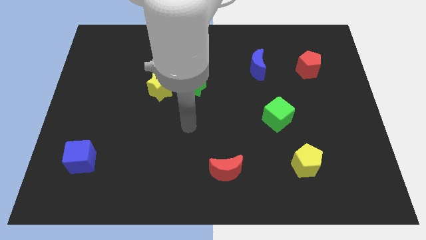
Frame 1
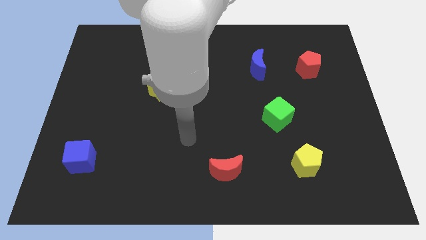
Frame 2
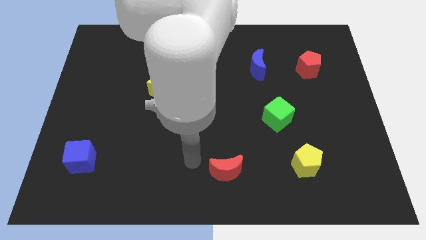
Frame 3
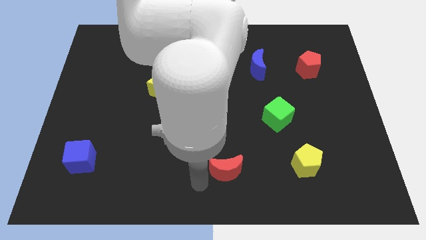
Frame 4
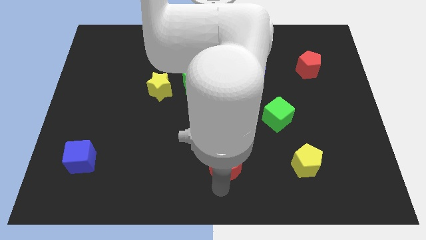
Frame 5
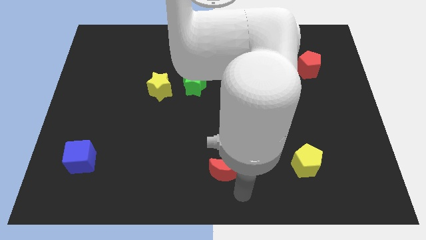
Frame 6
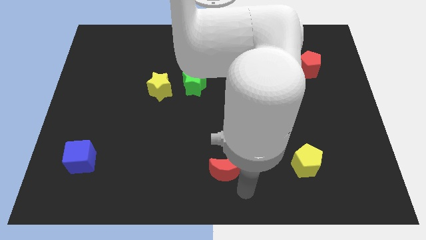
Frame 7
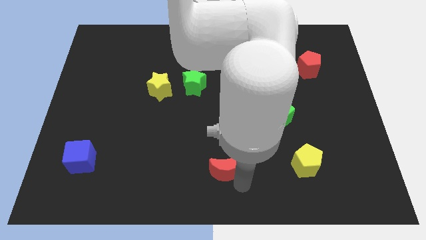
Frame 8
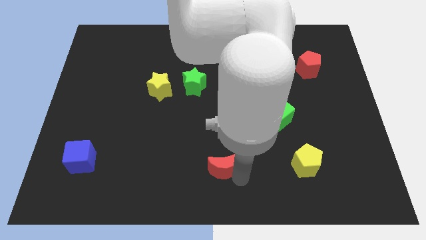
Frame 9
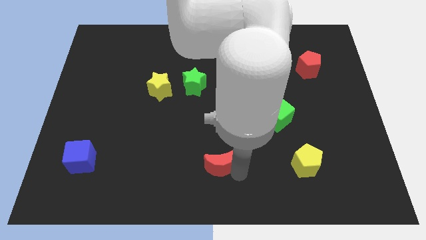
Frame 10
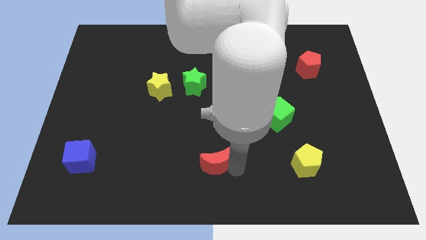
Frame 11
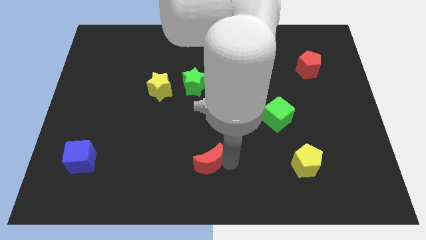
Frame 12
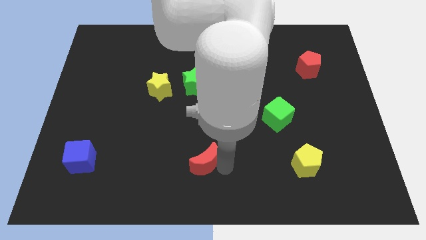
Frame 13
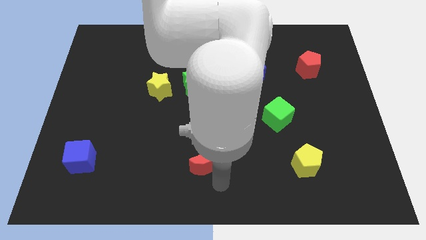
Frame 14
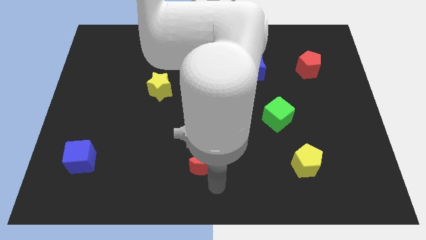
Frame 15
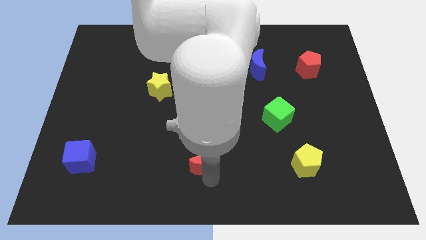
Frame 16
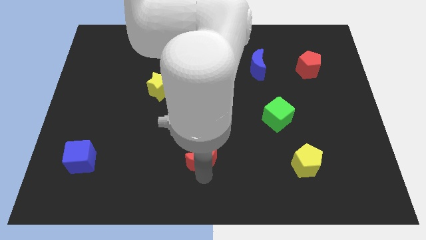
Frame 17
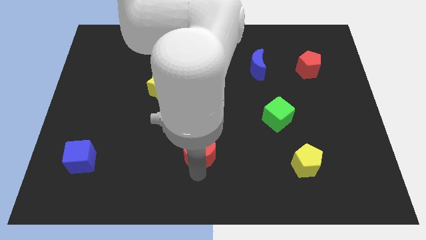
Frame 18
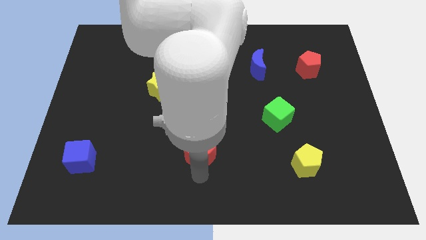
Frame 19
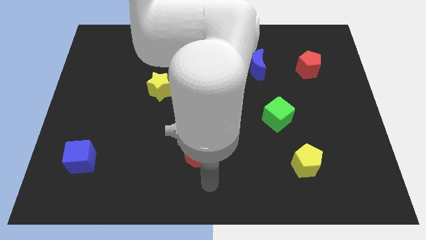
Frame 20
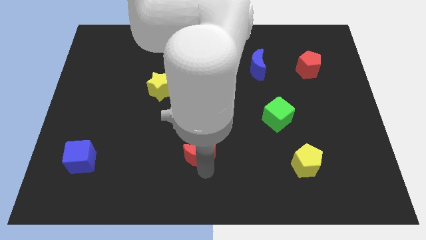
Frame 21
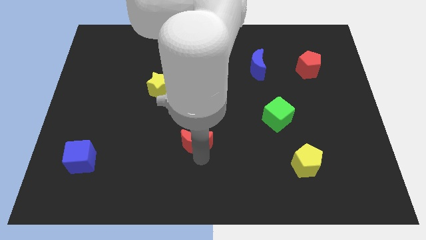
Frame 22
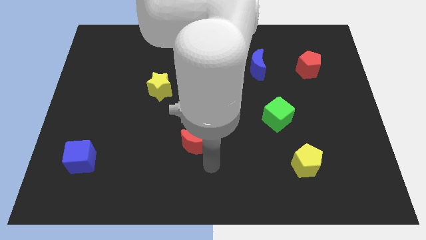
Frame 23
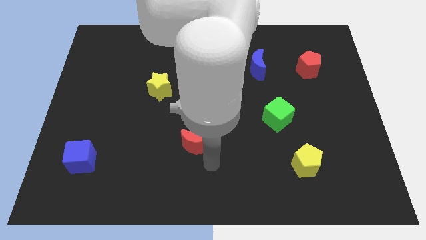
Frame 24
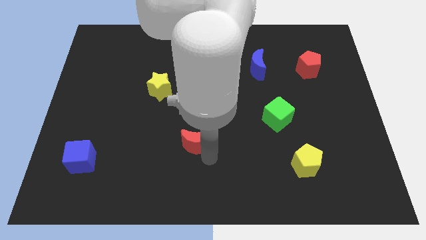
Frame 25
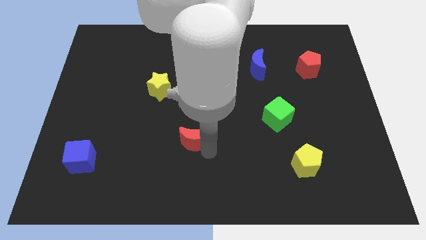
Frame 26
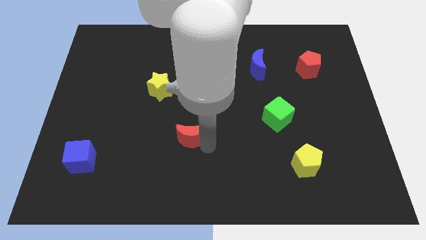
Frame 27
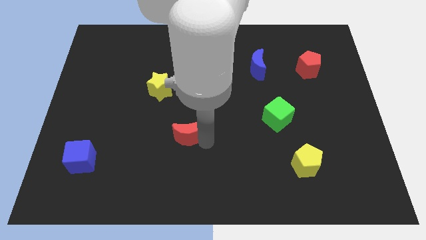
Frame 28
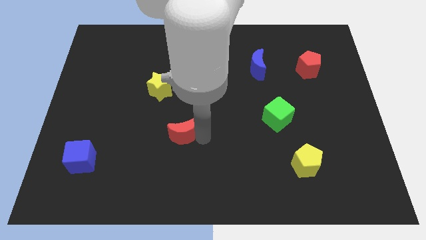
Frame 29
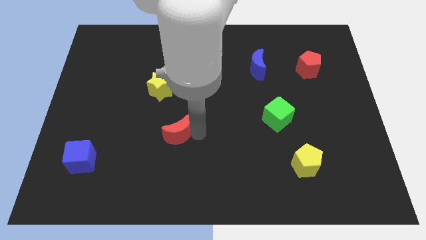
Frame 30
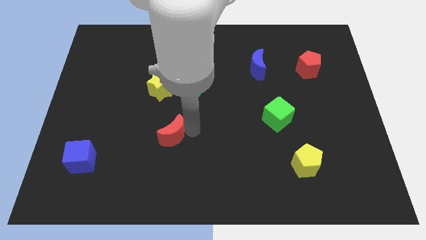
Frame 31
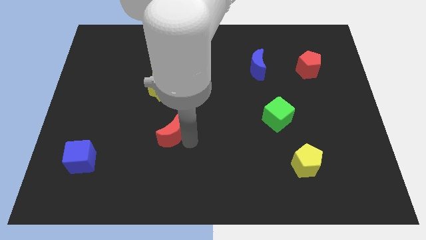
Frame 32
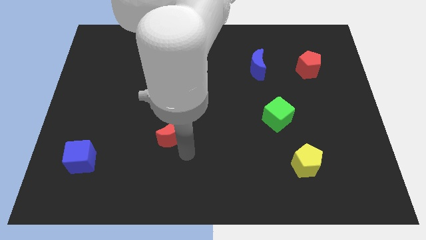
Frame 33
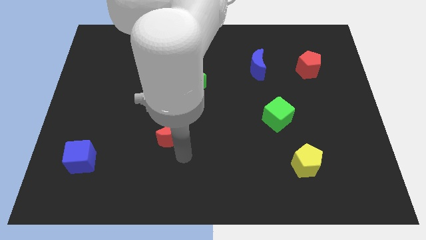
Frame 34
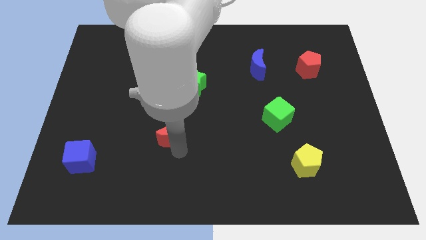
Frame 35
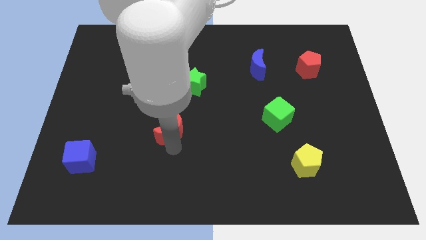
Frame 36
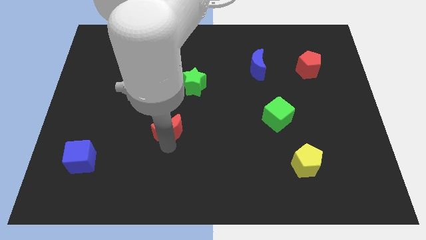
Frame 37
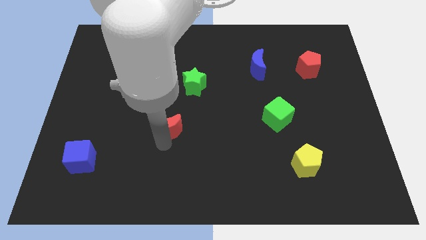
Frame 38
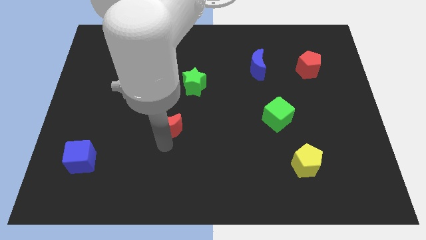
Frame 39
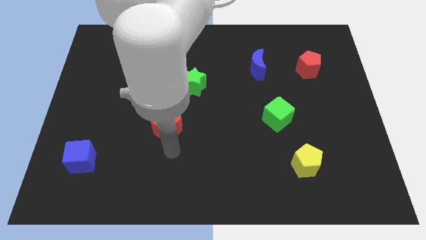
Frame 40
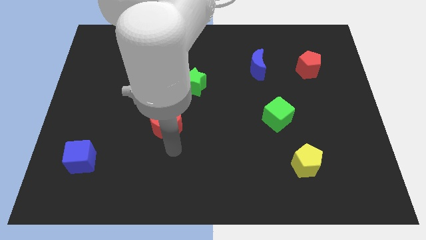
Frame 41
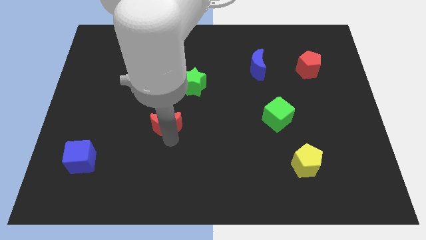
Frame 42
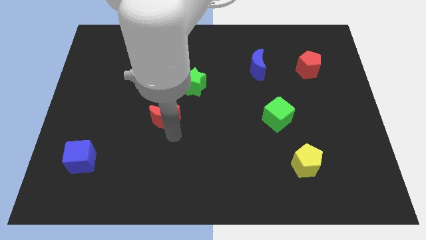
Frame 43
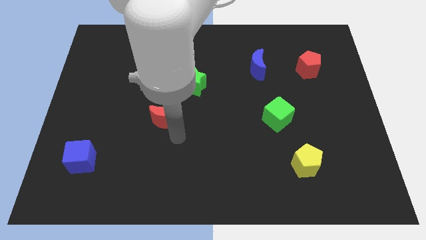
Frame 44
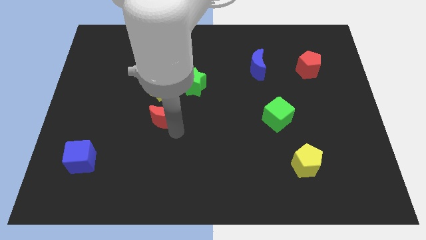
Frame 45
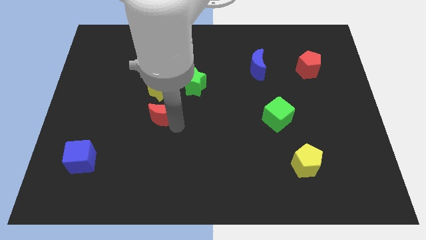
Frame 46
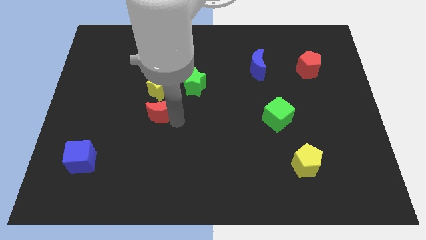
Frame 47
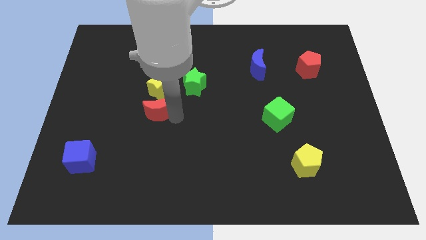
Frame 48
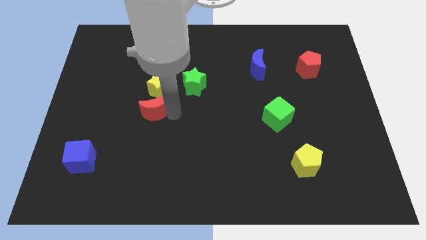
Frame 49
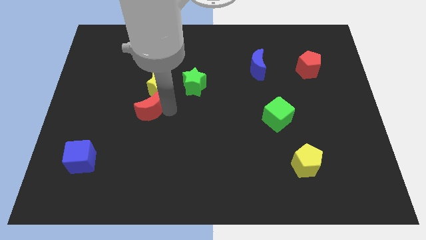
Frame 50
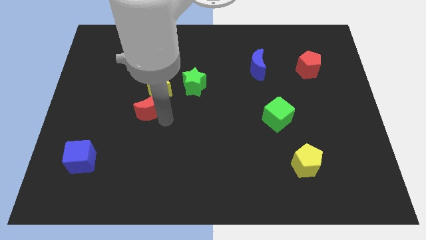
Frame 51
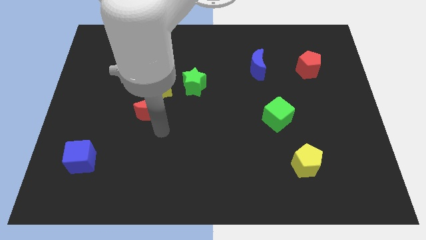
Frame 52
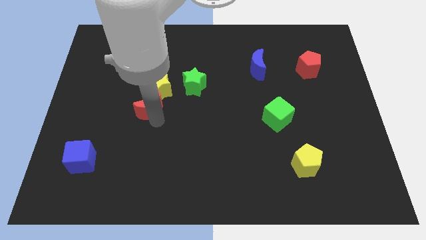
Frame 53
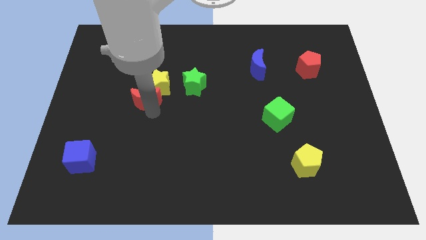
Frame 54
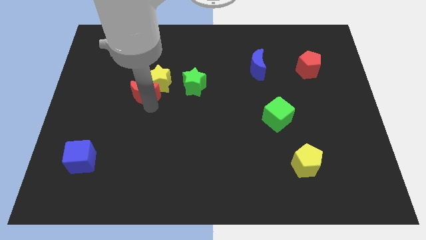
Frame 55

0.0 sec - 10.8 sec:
move the red moon just left of the green star

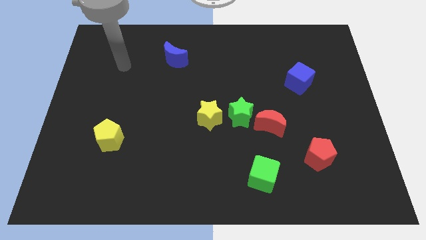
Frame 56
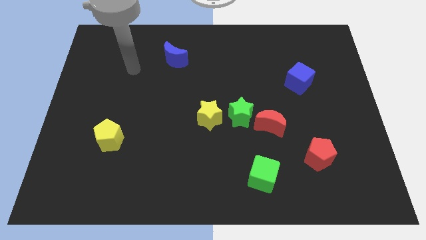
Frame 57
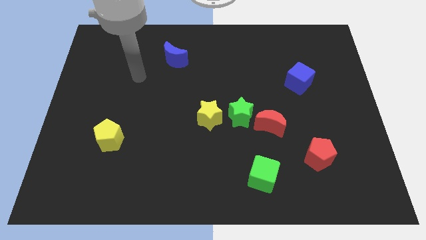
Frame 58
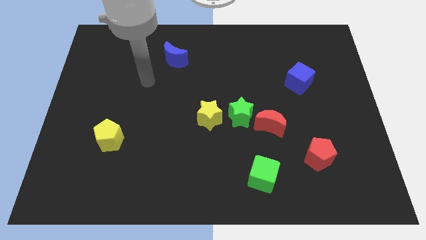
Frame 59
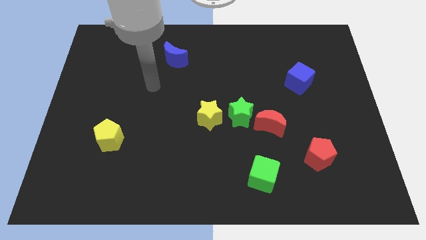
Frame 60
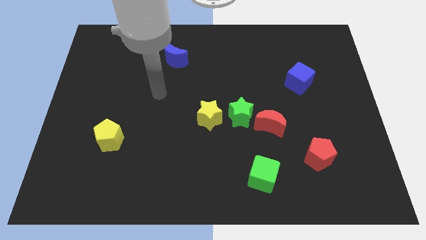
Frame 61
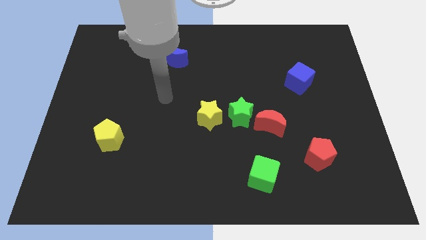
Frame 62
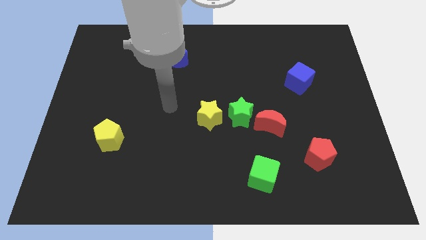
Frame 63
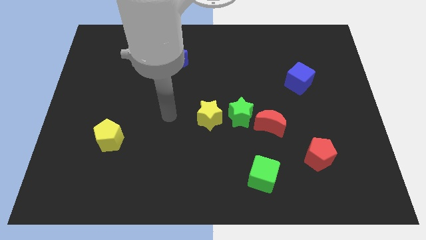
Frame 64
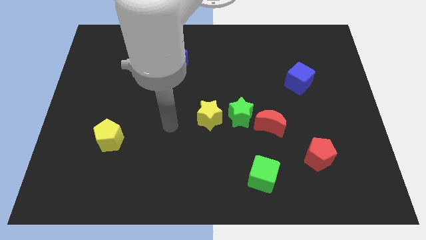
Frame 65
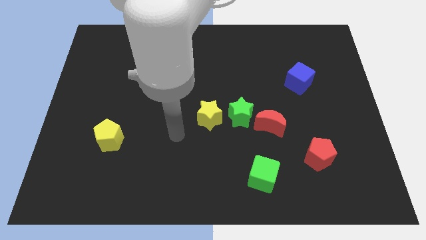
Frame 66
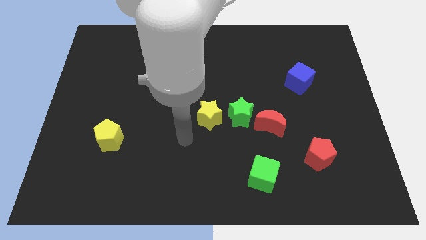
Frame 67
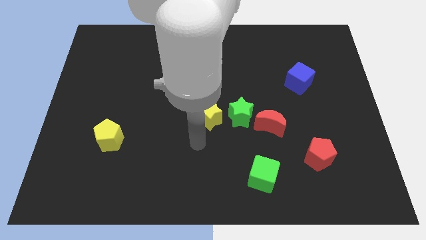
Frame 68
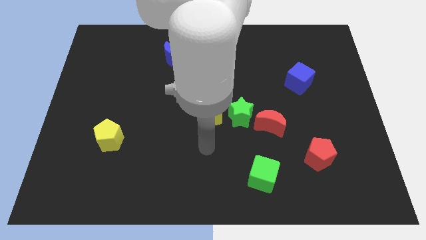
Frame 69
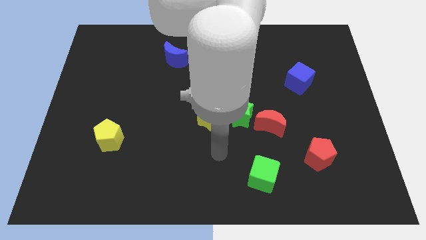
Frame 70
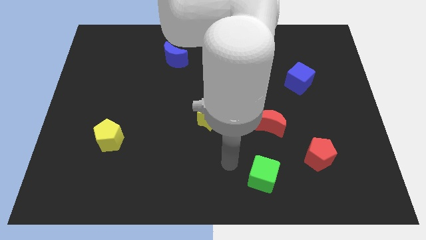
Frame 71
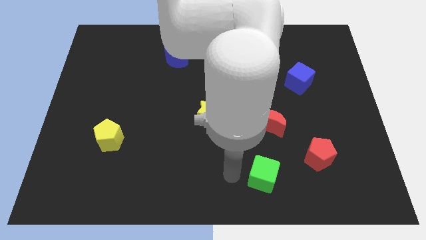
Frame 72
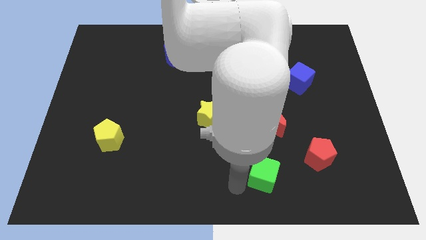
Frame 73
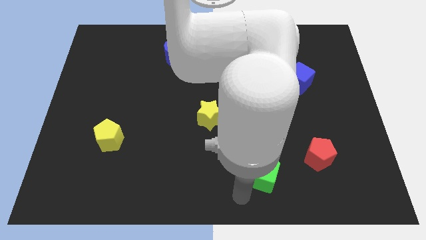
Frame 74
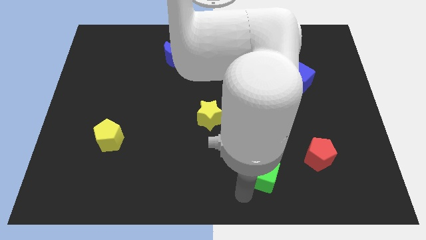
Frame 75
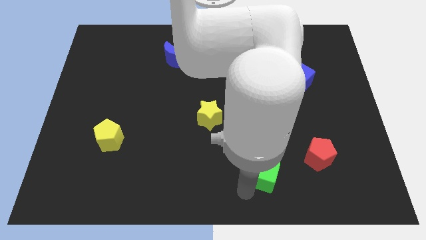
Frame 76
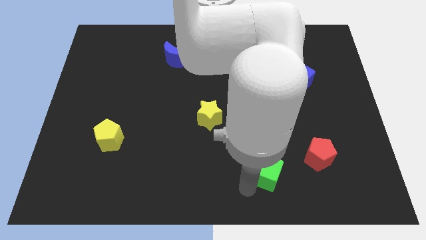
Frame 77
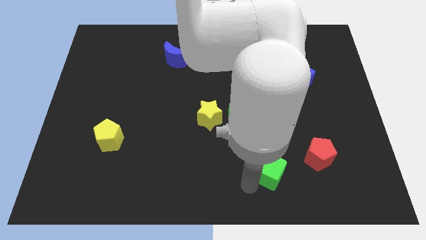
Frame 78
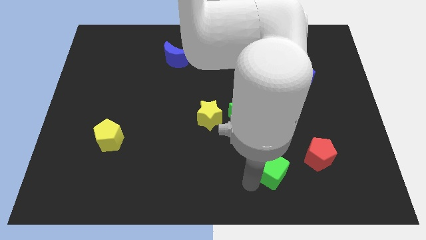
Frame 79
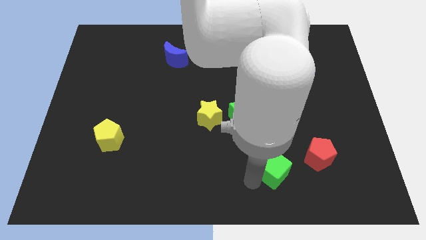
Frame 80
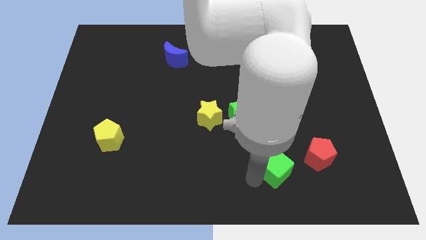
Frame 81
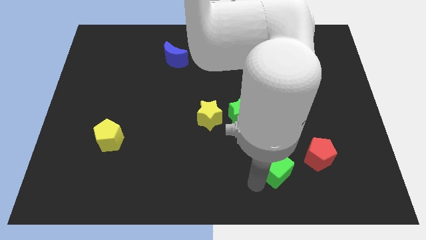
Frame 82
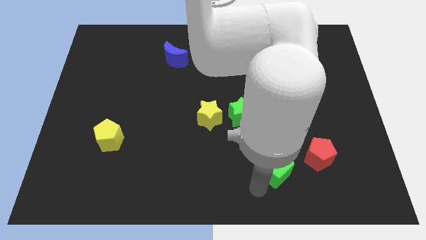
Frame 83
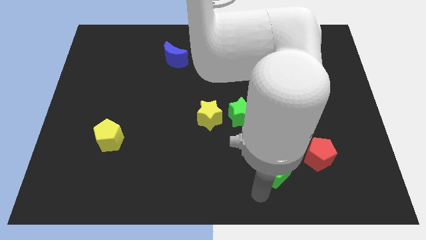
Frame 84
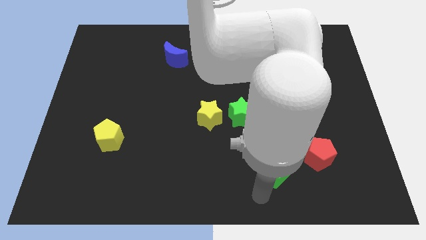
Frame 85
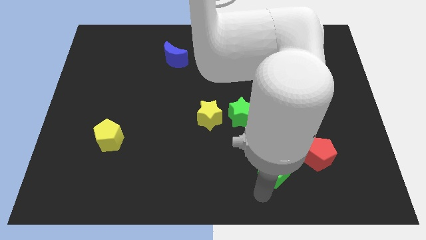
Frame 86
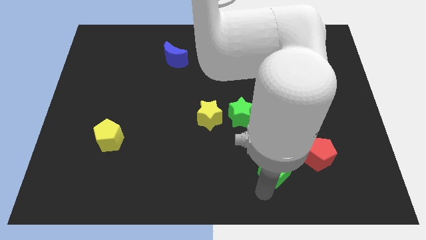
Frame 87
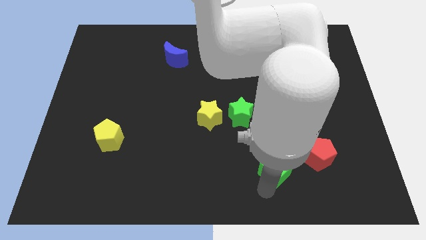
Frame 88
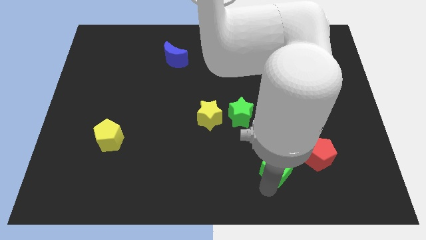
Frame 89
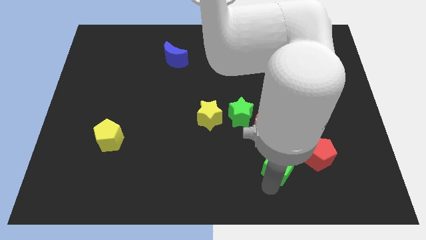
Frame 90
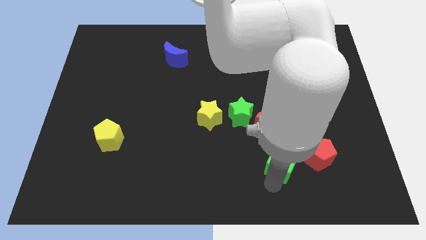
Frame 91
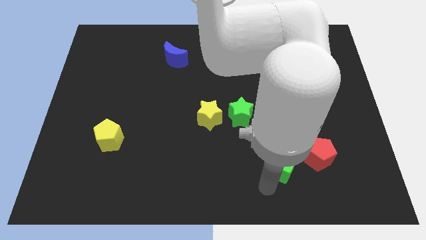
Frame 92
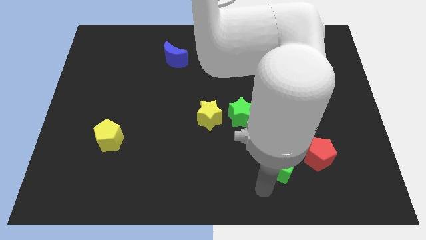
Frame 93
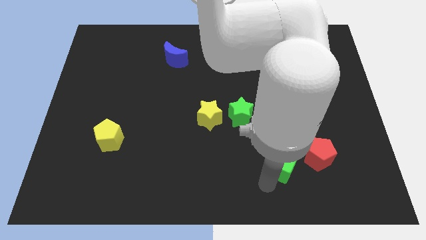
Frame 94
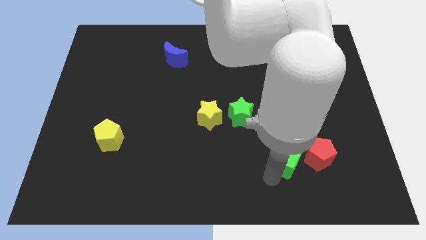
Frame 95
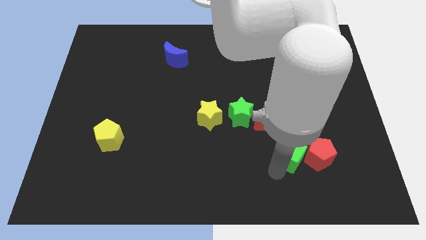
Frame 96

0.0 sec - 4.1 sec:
slide the green cube to the bottom right of the red moon
